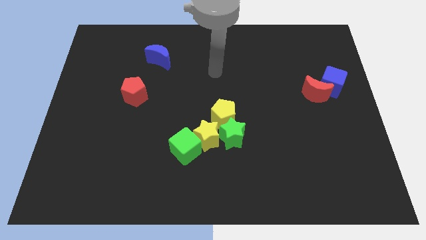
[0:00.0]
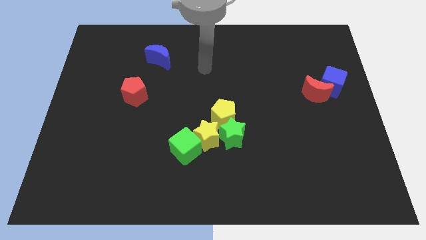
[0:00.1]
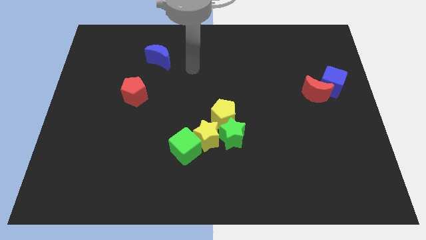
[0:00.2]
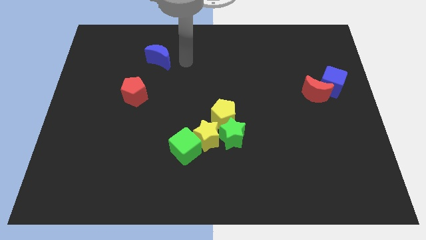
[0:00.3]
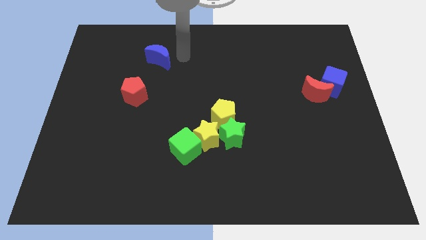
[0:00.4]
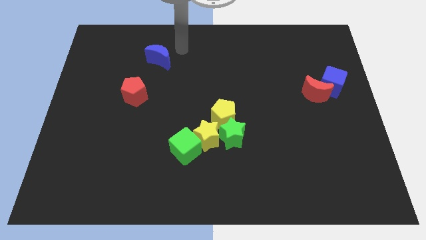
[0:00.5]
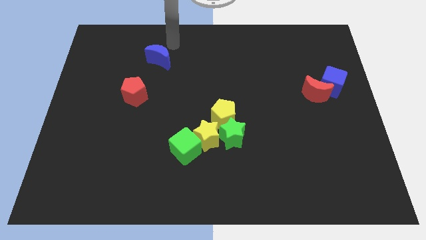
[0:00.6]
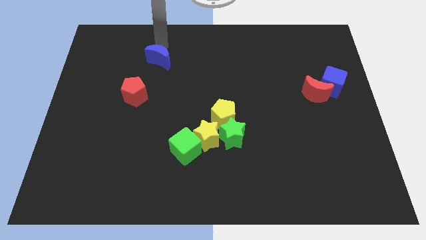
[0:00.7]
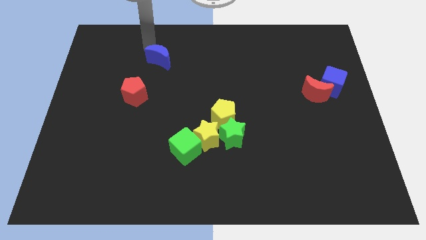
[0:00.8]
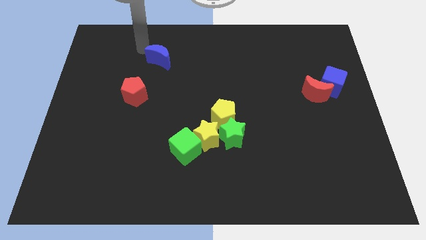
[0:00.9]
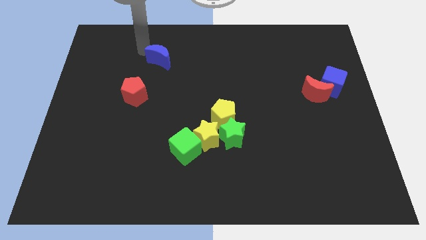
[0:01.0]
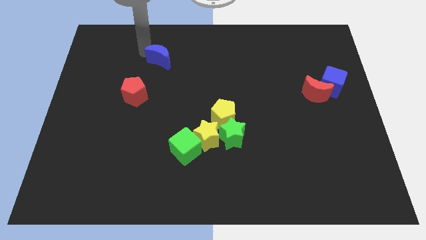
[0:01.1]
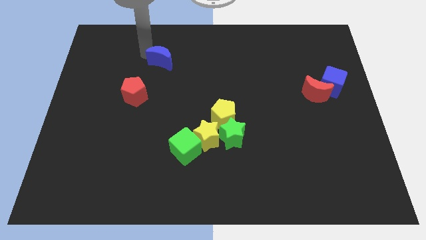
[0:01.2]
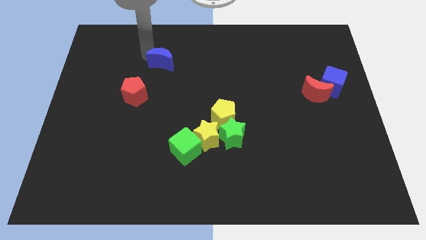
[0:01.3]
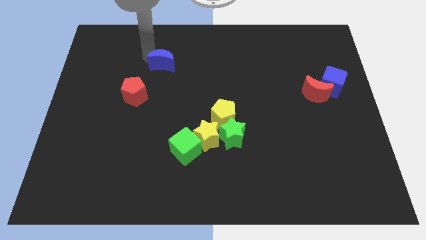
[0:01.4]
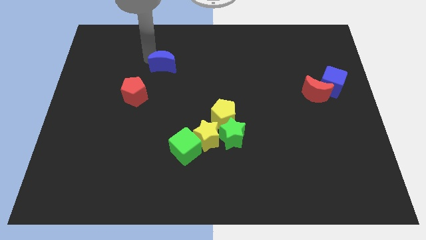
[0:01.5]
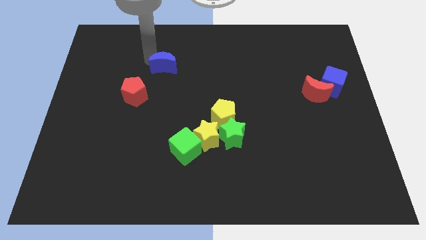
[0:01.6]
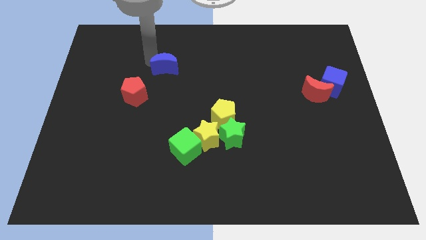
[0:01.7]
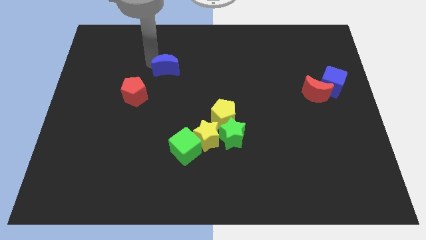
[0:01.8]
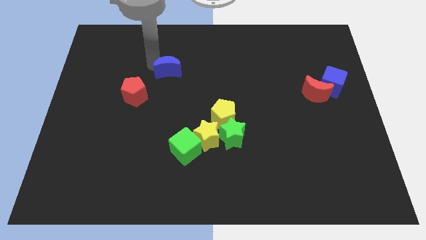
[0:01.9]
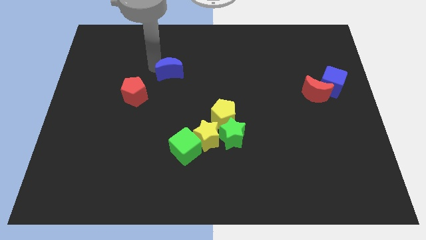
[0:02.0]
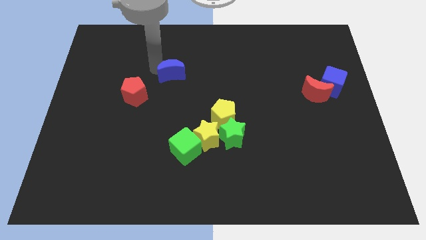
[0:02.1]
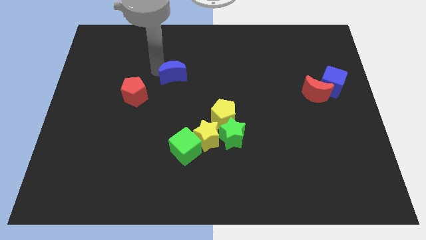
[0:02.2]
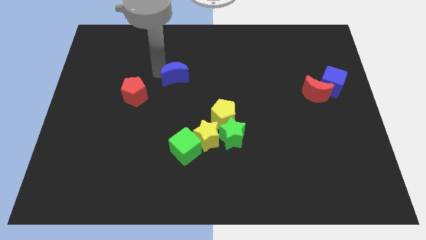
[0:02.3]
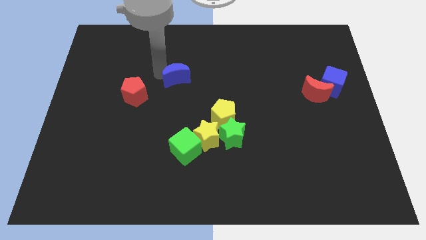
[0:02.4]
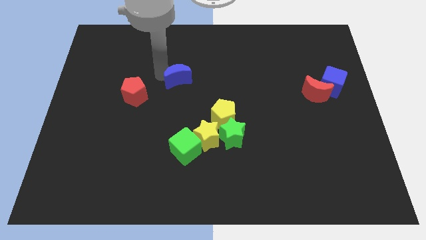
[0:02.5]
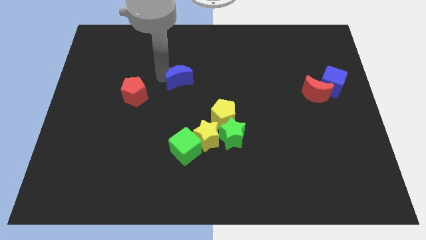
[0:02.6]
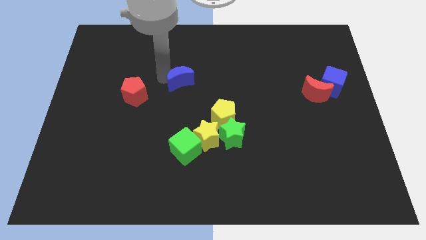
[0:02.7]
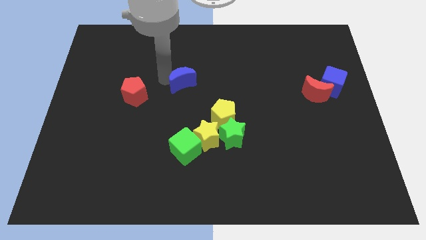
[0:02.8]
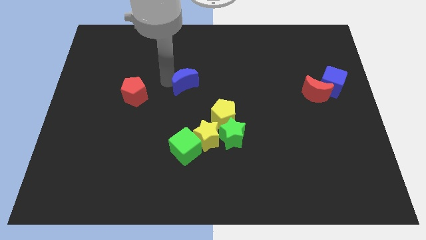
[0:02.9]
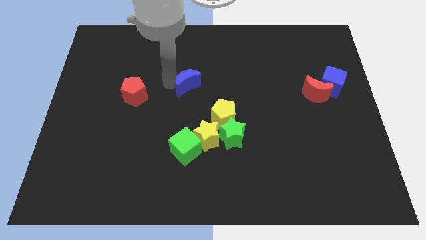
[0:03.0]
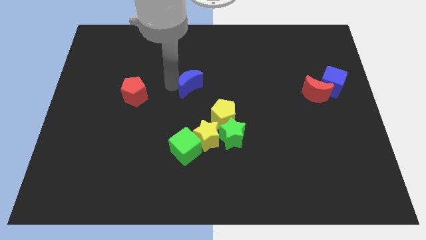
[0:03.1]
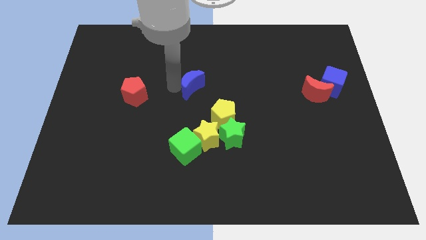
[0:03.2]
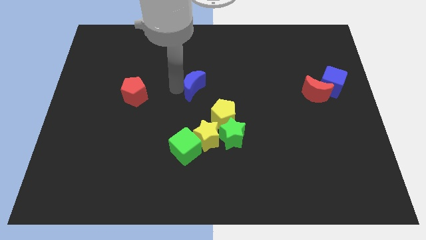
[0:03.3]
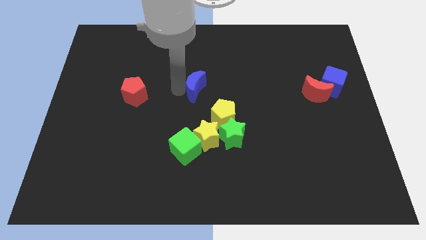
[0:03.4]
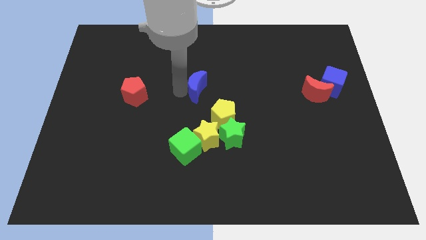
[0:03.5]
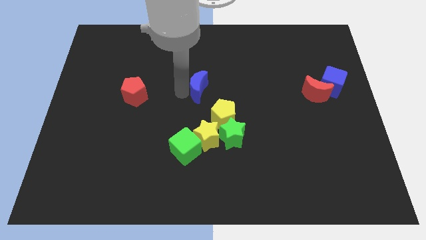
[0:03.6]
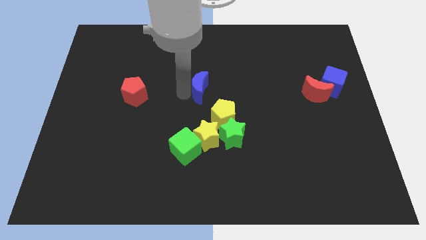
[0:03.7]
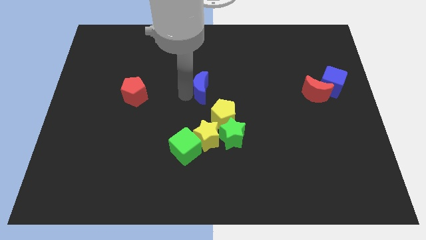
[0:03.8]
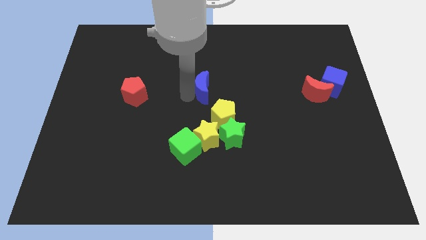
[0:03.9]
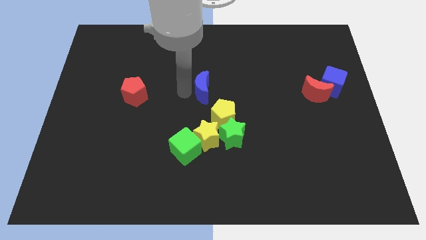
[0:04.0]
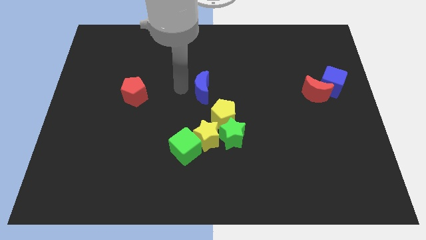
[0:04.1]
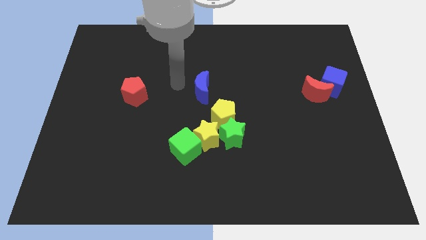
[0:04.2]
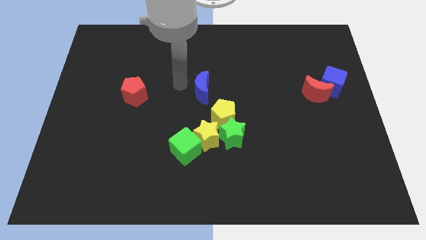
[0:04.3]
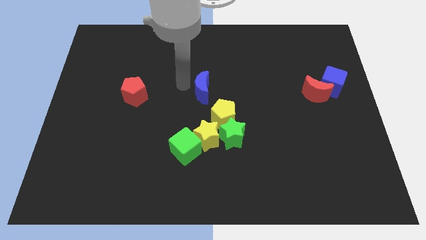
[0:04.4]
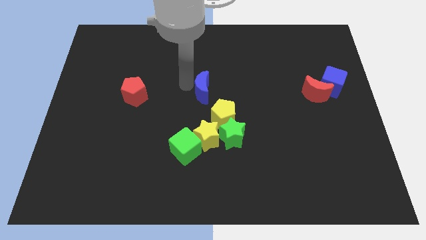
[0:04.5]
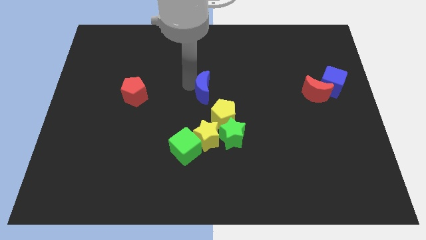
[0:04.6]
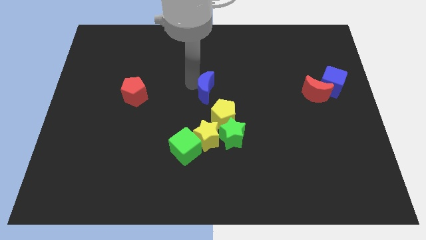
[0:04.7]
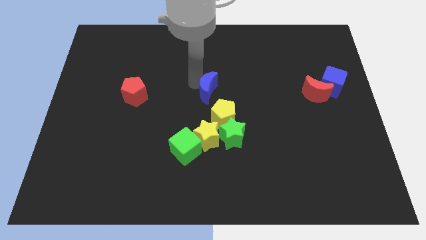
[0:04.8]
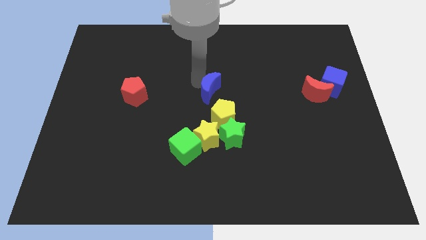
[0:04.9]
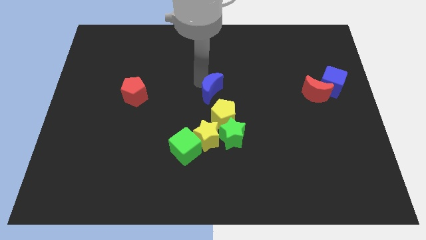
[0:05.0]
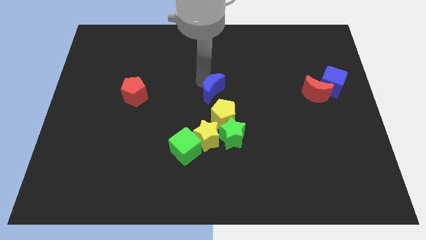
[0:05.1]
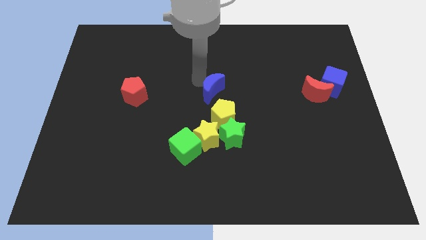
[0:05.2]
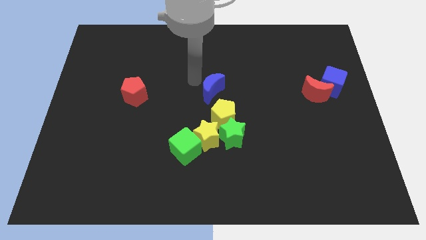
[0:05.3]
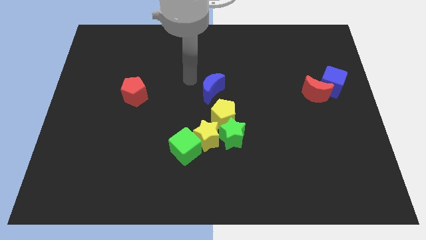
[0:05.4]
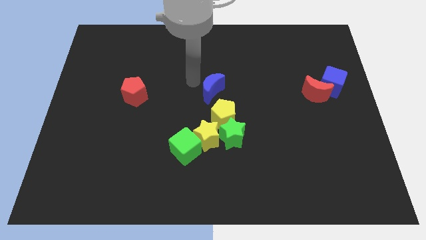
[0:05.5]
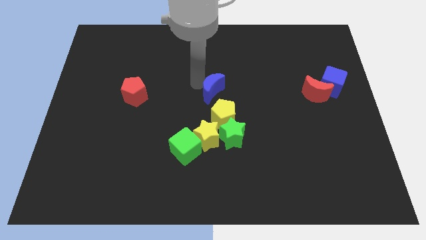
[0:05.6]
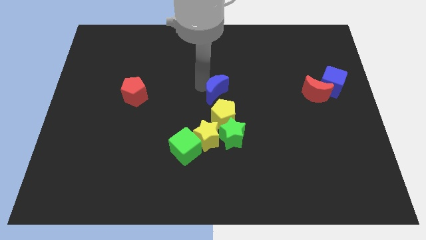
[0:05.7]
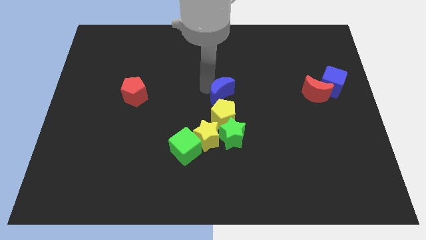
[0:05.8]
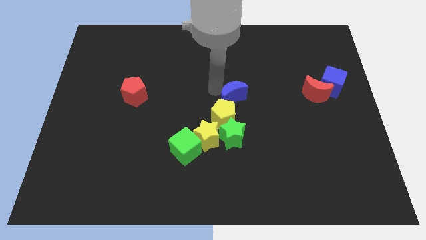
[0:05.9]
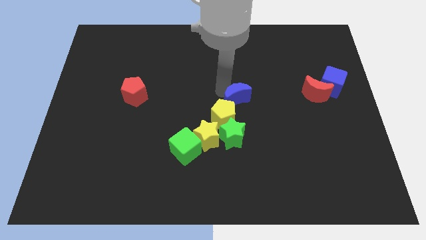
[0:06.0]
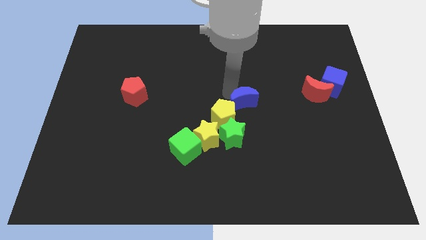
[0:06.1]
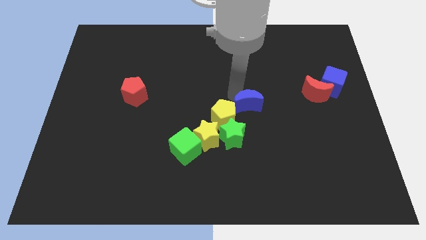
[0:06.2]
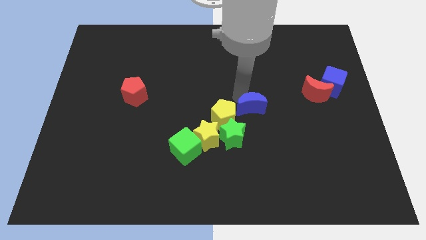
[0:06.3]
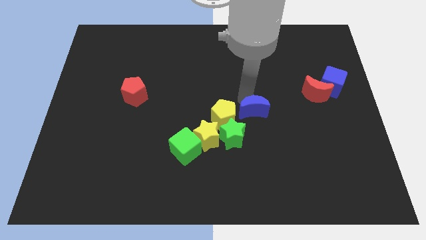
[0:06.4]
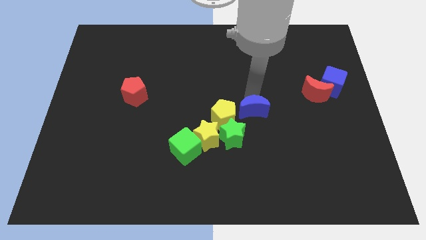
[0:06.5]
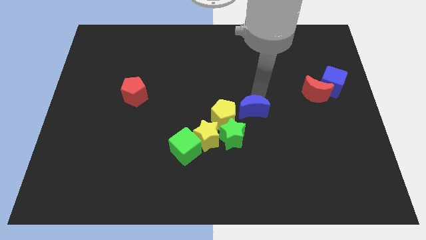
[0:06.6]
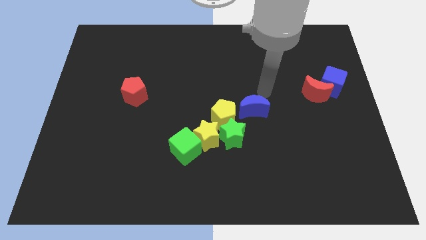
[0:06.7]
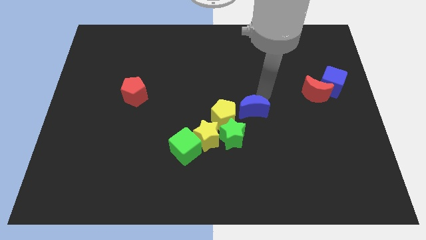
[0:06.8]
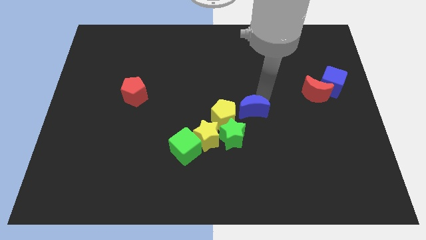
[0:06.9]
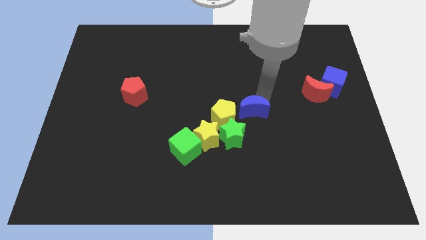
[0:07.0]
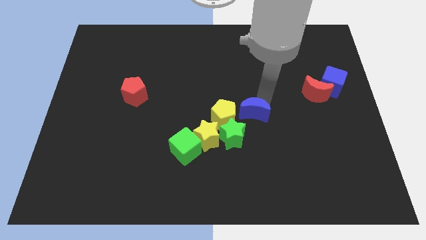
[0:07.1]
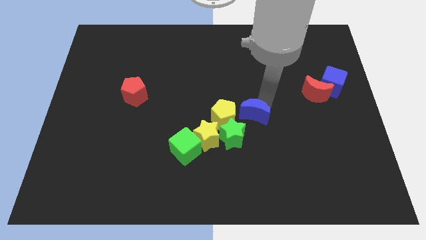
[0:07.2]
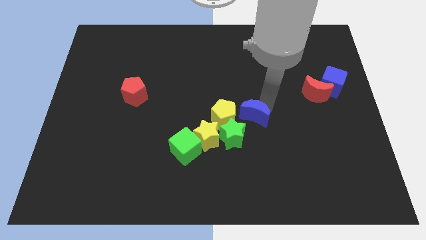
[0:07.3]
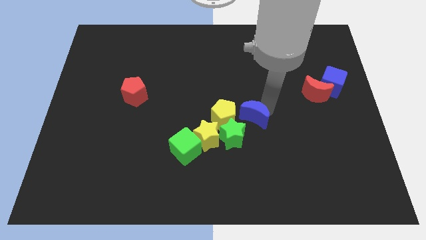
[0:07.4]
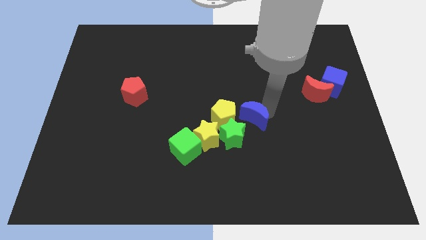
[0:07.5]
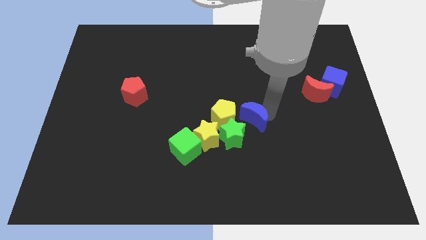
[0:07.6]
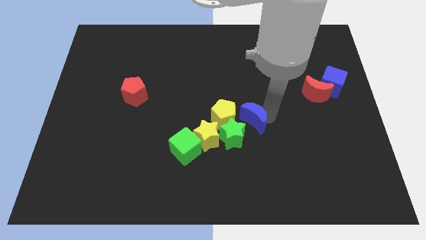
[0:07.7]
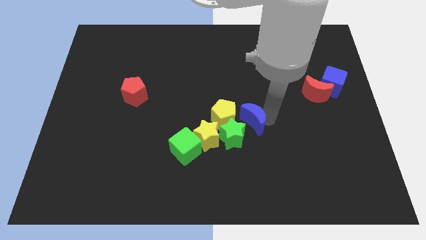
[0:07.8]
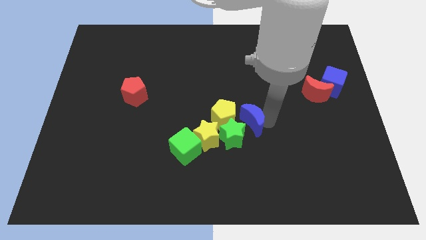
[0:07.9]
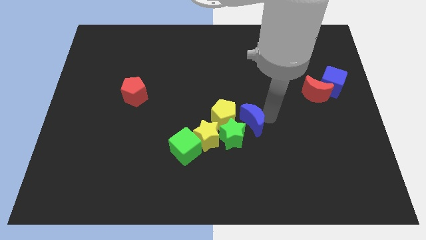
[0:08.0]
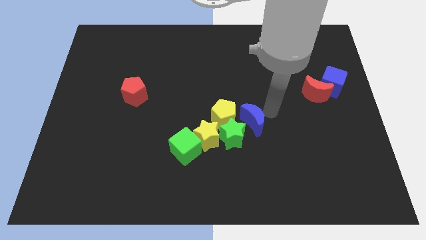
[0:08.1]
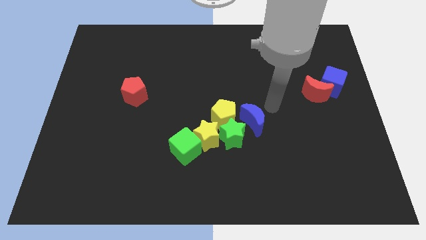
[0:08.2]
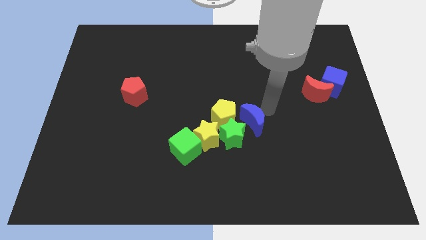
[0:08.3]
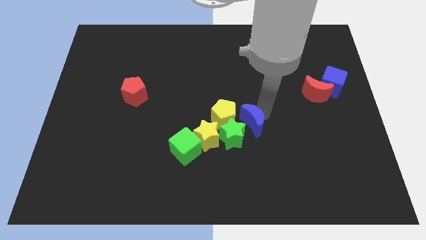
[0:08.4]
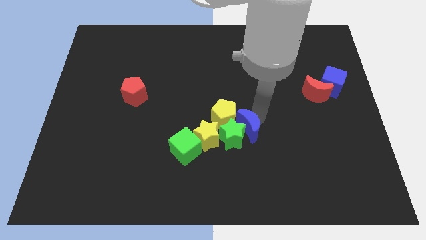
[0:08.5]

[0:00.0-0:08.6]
slide the blue moon close to the green star
